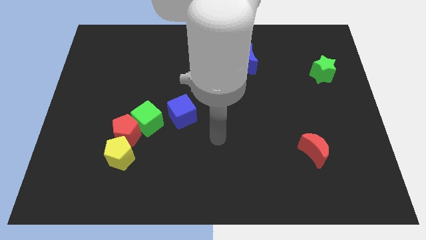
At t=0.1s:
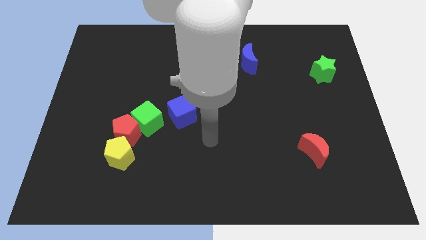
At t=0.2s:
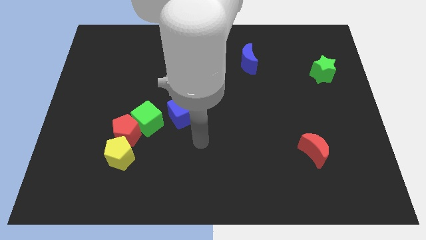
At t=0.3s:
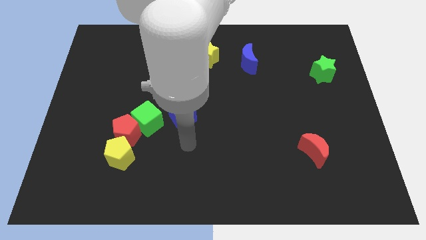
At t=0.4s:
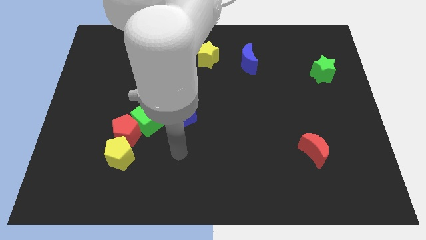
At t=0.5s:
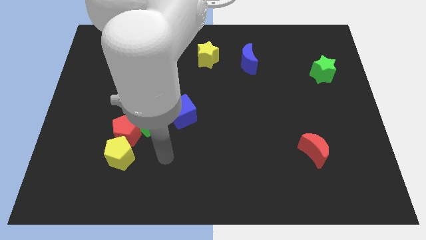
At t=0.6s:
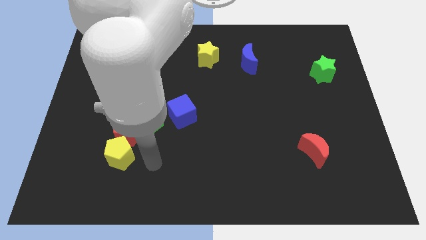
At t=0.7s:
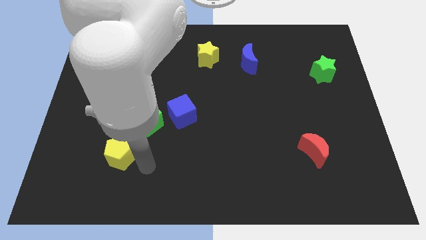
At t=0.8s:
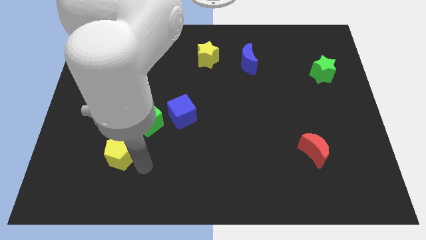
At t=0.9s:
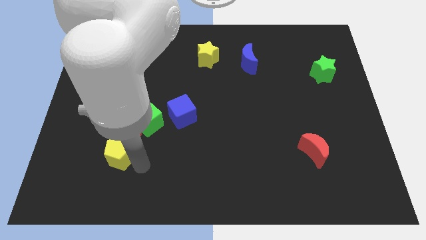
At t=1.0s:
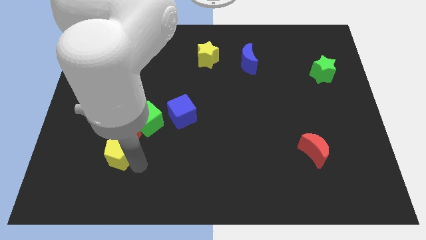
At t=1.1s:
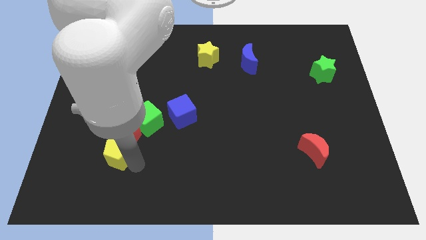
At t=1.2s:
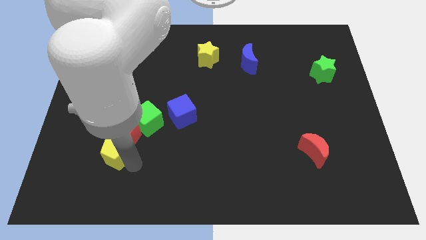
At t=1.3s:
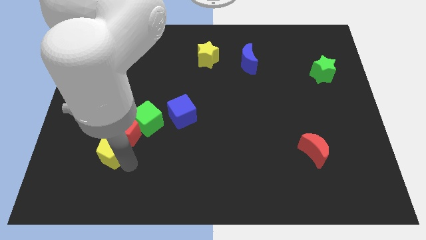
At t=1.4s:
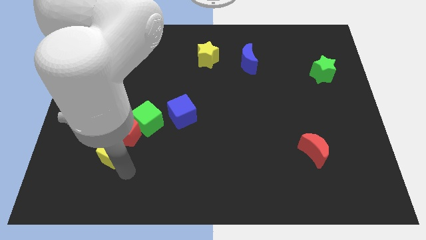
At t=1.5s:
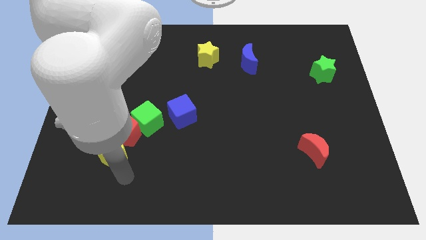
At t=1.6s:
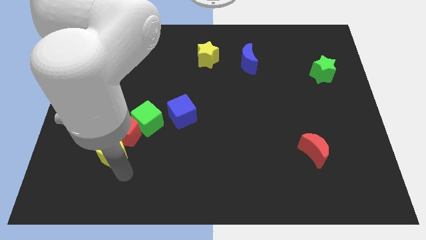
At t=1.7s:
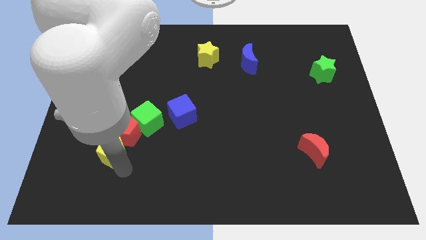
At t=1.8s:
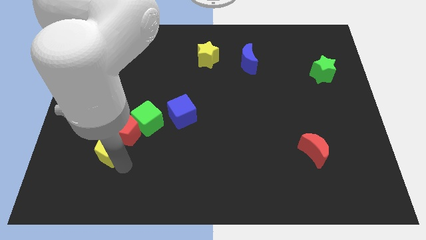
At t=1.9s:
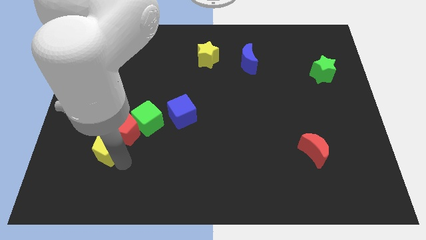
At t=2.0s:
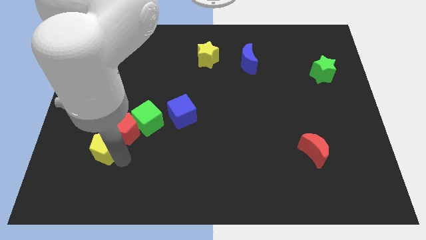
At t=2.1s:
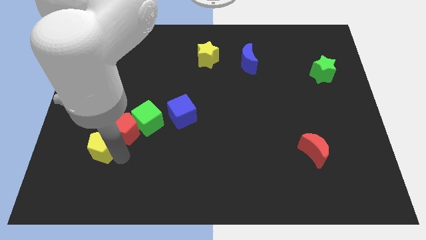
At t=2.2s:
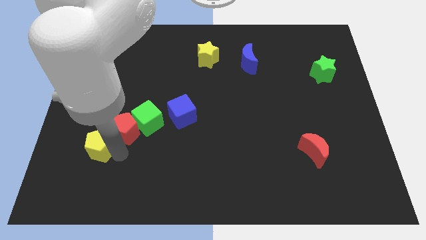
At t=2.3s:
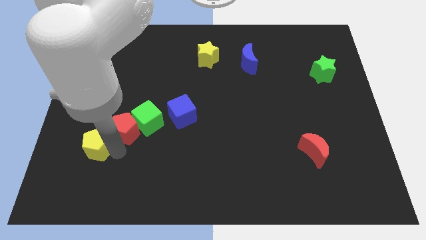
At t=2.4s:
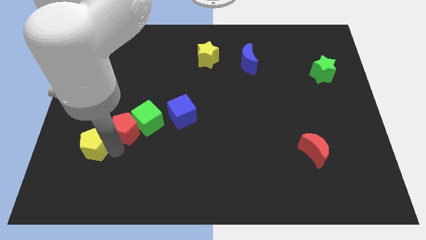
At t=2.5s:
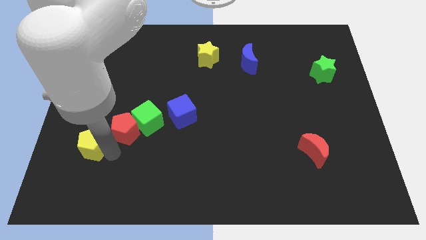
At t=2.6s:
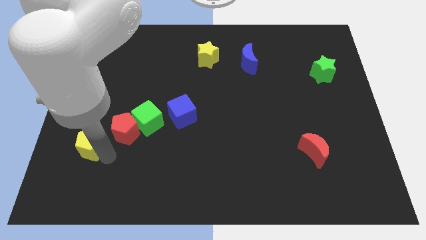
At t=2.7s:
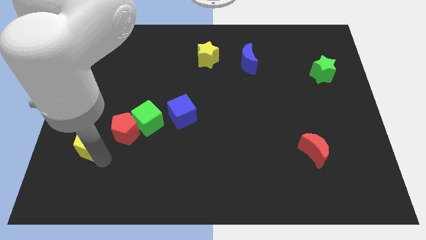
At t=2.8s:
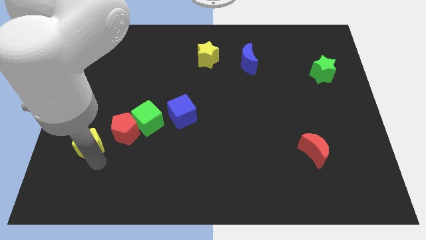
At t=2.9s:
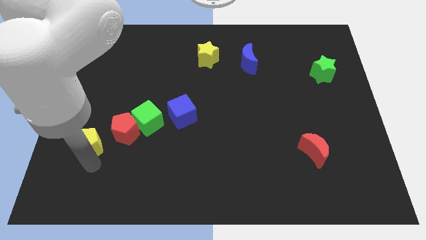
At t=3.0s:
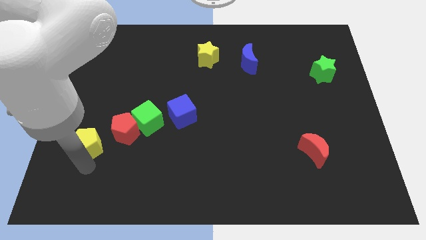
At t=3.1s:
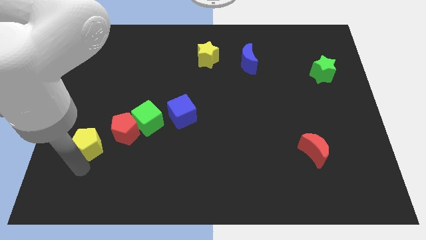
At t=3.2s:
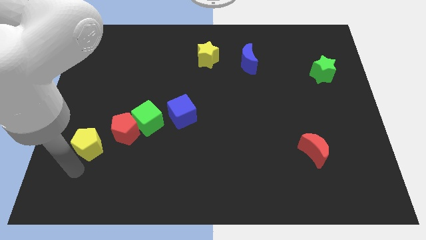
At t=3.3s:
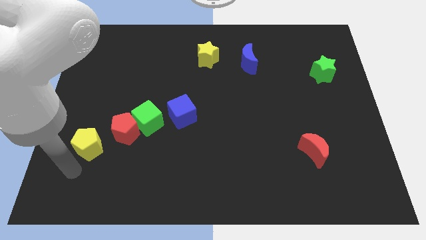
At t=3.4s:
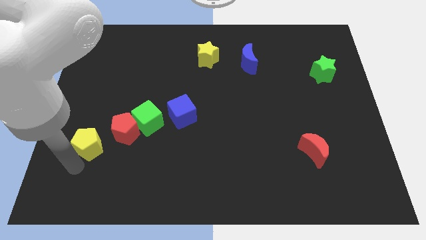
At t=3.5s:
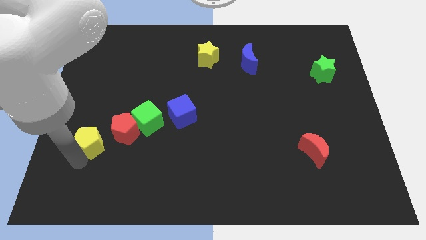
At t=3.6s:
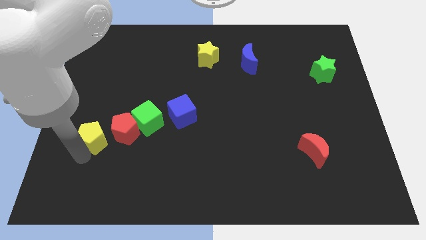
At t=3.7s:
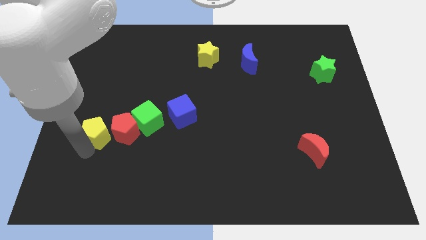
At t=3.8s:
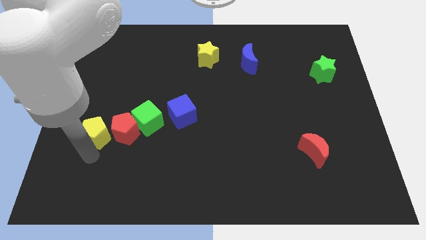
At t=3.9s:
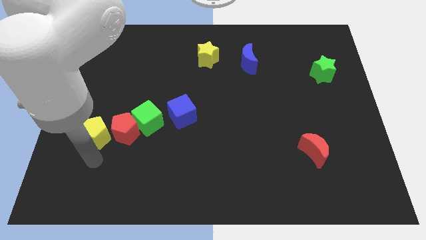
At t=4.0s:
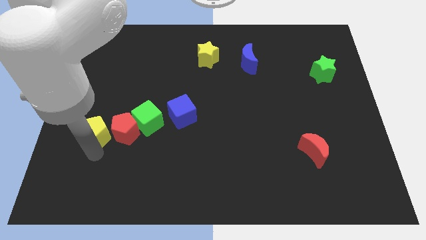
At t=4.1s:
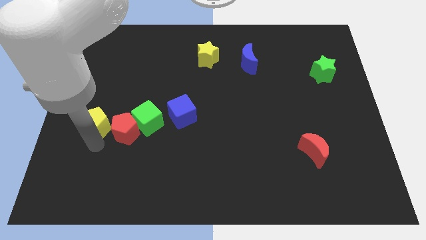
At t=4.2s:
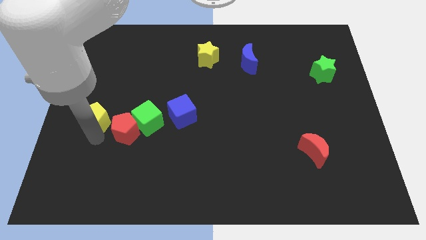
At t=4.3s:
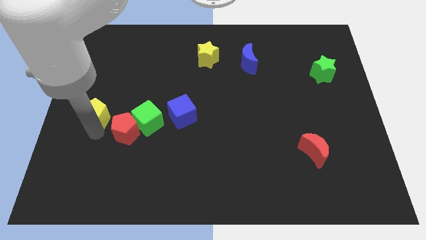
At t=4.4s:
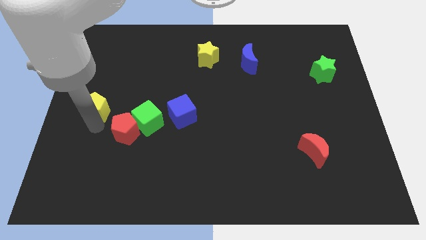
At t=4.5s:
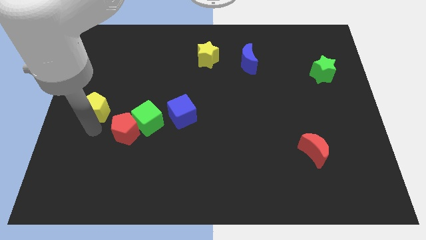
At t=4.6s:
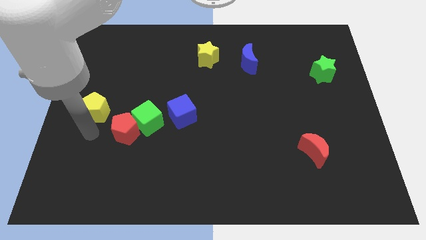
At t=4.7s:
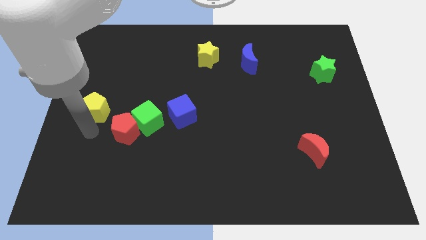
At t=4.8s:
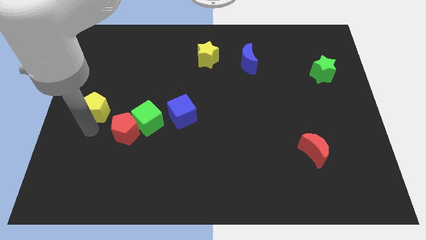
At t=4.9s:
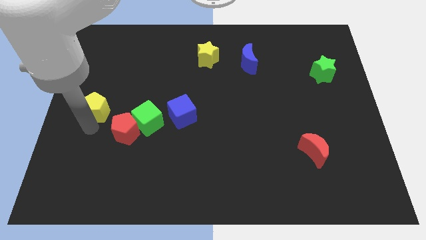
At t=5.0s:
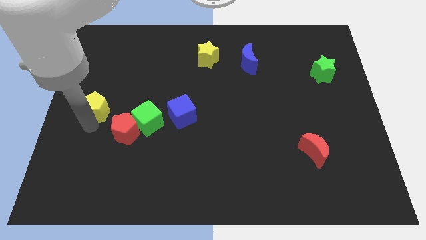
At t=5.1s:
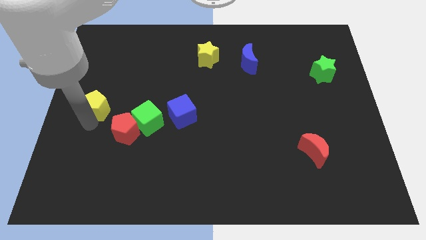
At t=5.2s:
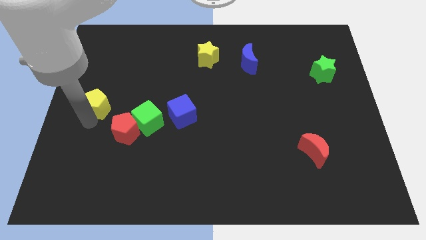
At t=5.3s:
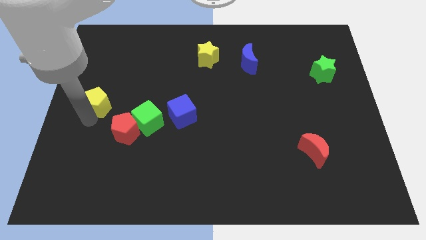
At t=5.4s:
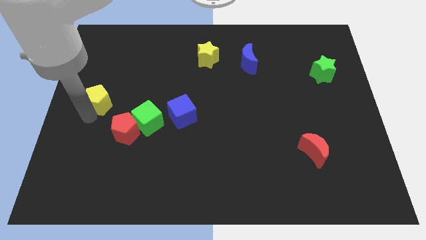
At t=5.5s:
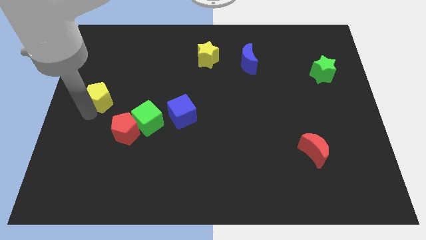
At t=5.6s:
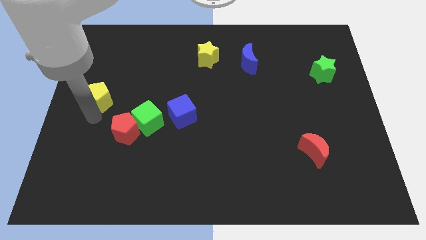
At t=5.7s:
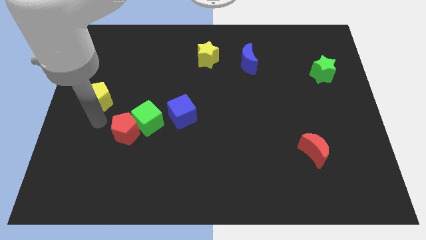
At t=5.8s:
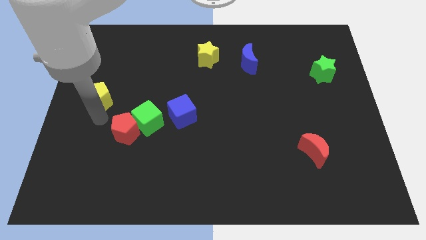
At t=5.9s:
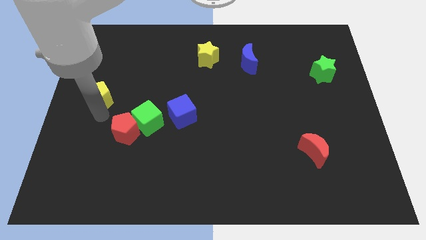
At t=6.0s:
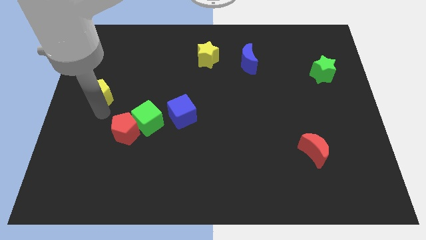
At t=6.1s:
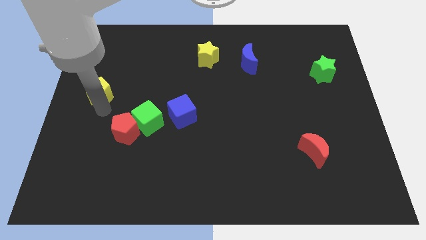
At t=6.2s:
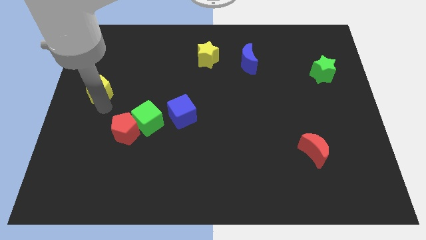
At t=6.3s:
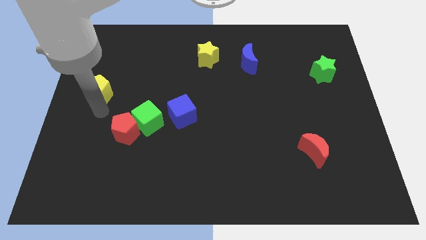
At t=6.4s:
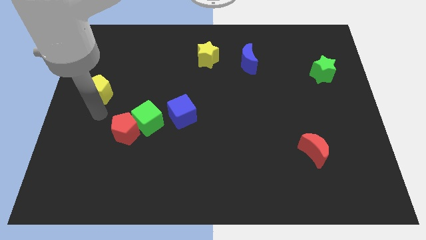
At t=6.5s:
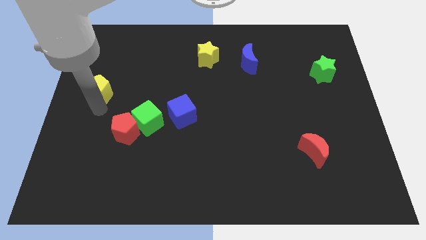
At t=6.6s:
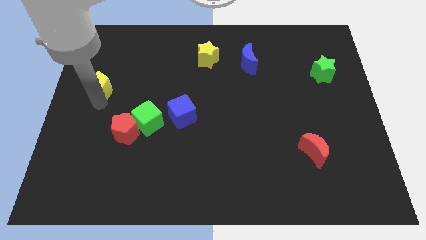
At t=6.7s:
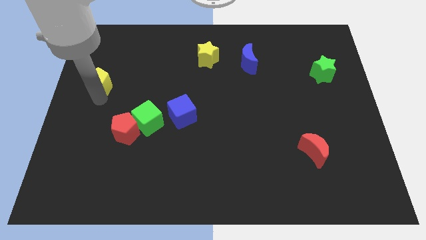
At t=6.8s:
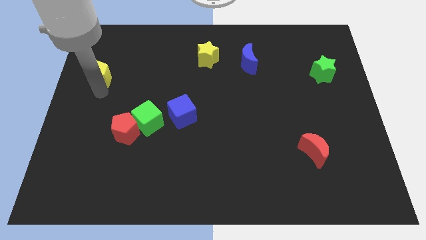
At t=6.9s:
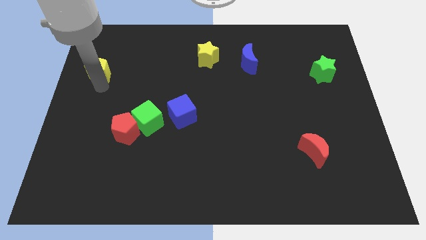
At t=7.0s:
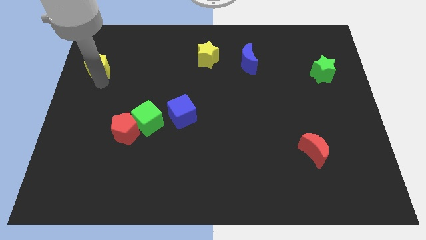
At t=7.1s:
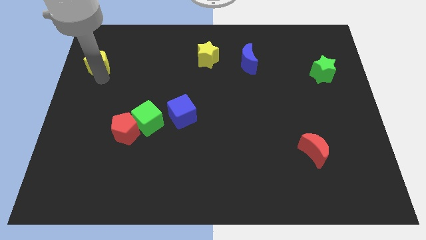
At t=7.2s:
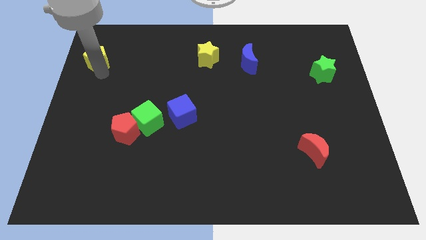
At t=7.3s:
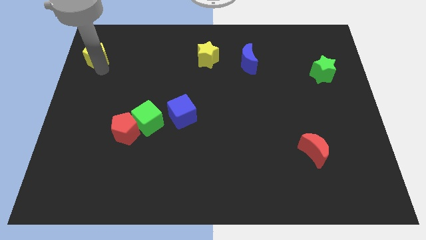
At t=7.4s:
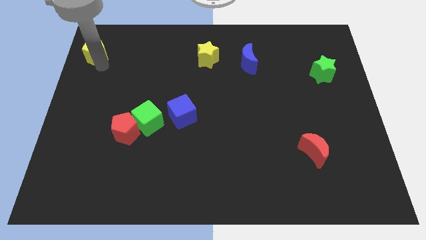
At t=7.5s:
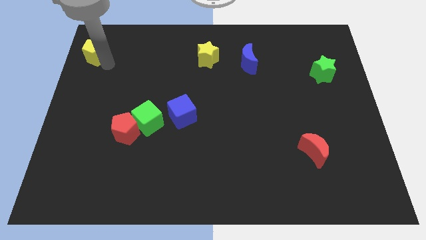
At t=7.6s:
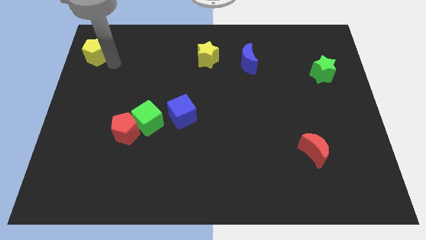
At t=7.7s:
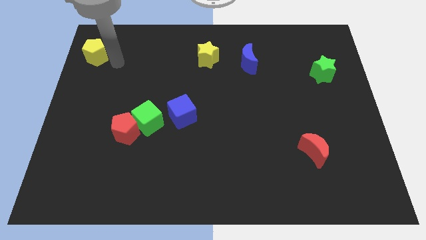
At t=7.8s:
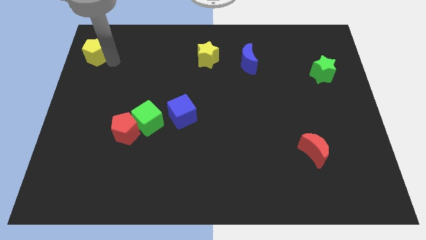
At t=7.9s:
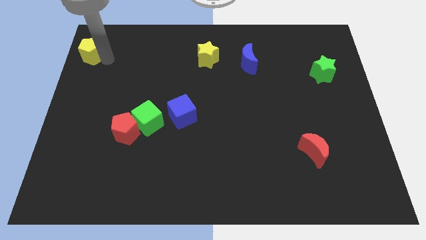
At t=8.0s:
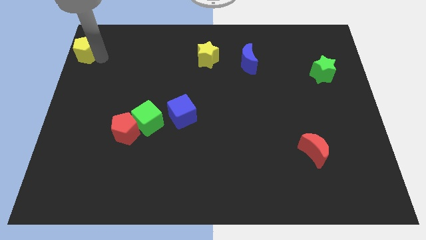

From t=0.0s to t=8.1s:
slide the yellow pentagon to the top left of the board
